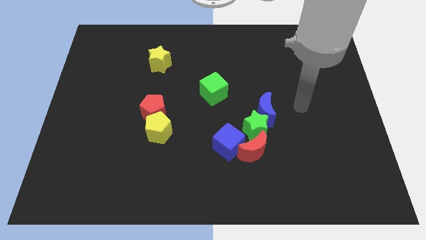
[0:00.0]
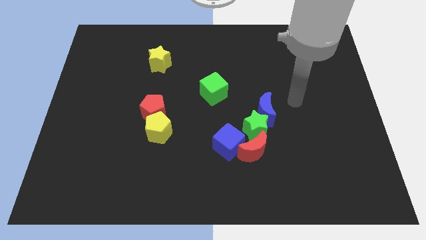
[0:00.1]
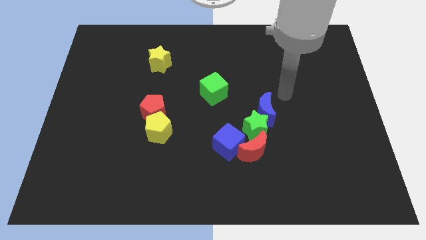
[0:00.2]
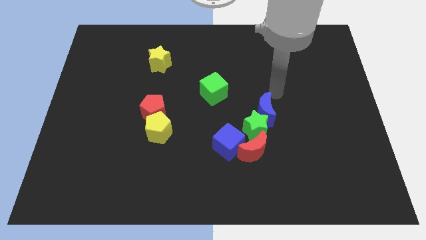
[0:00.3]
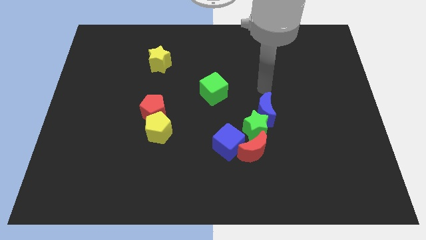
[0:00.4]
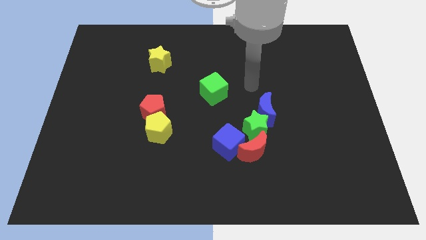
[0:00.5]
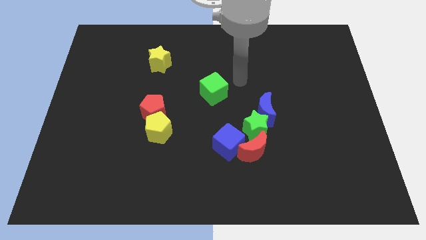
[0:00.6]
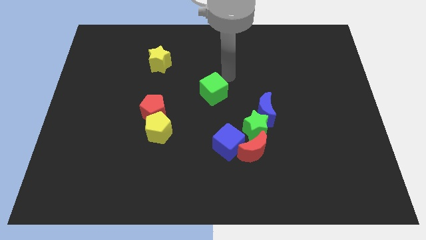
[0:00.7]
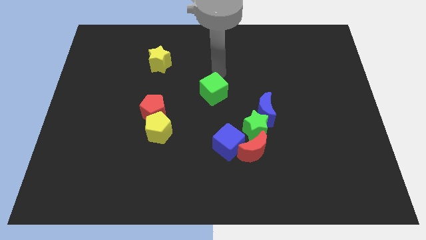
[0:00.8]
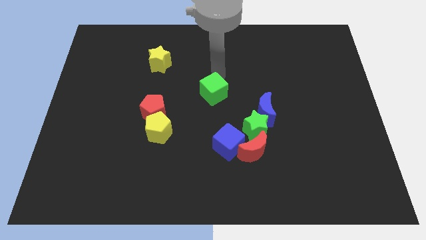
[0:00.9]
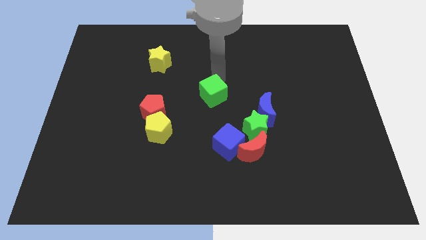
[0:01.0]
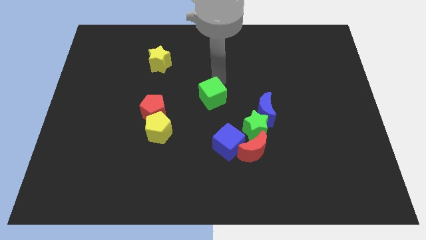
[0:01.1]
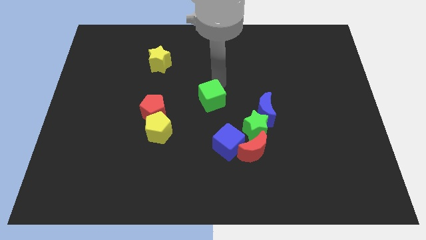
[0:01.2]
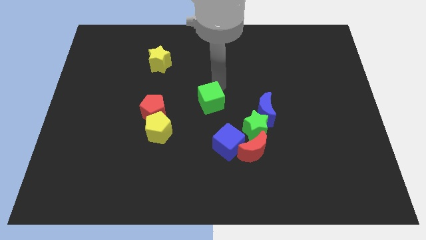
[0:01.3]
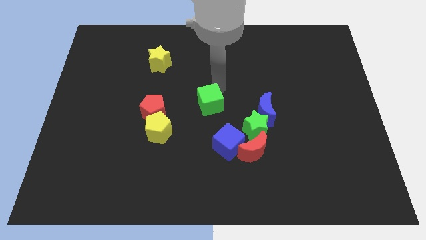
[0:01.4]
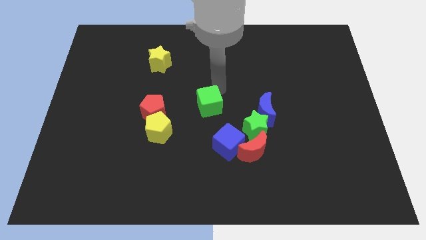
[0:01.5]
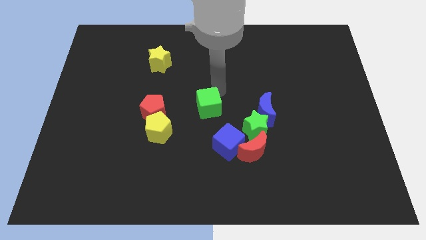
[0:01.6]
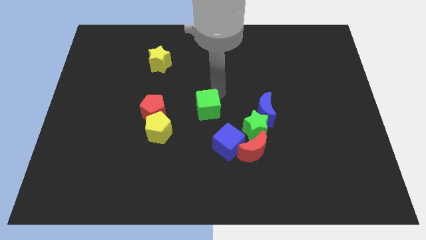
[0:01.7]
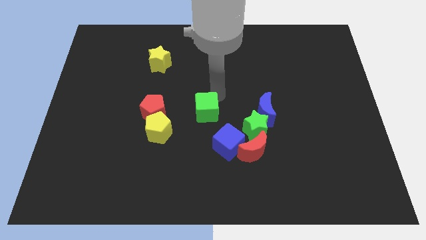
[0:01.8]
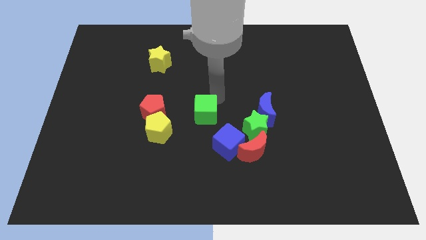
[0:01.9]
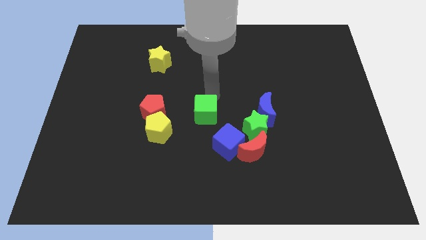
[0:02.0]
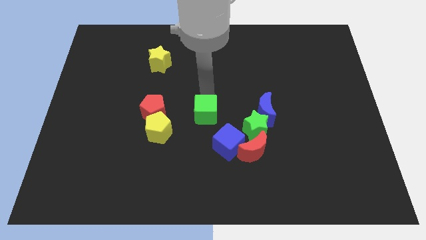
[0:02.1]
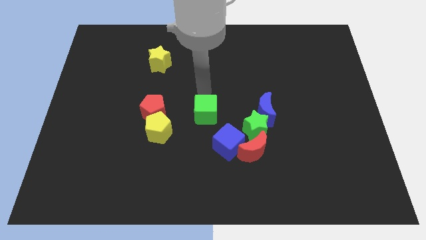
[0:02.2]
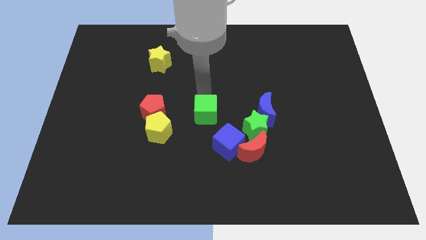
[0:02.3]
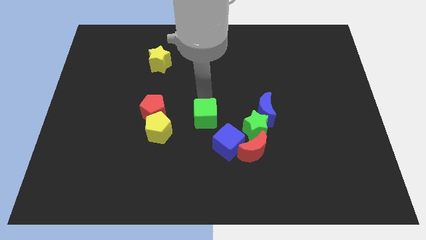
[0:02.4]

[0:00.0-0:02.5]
move the green cube down slightly

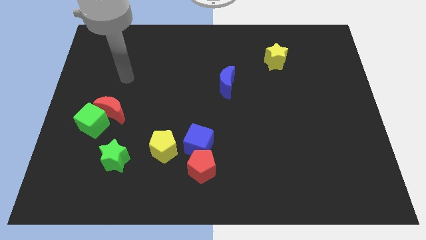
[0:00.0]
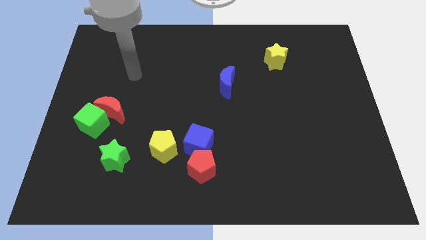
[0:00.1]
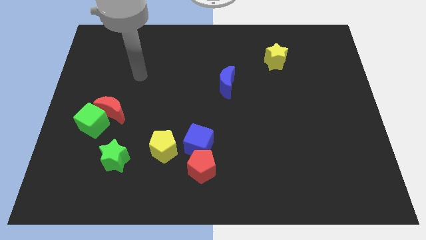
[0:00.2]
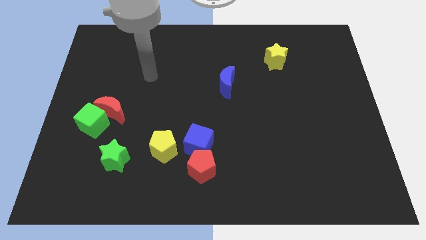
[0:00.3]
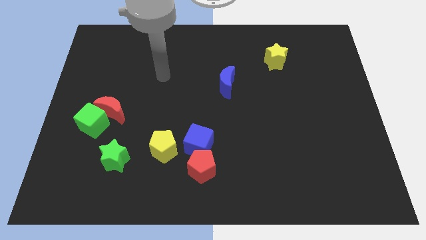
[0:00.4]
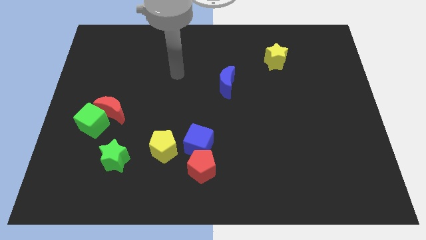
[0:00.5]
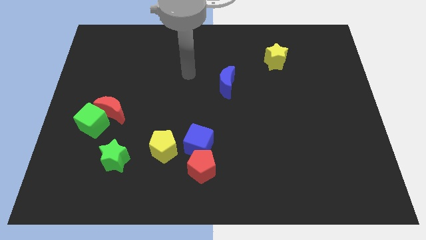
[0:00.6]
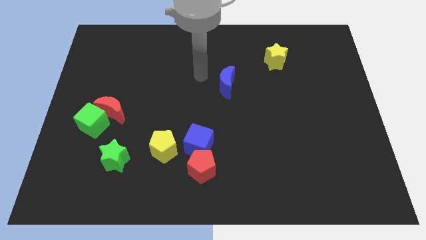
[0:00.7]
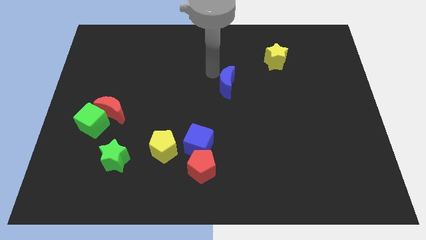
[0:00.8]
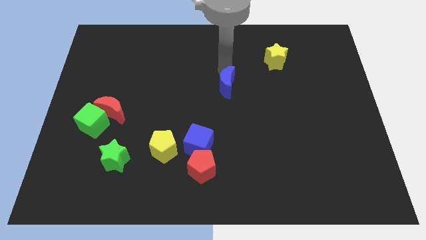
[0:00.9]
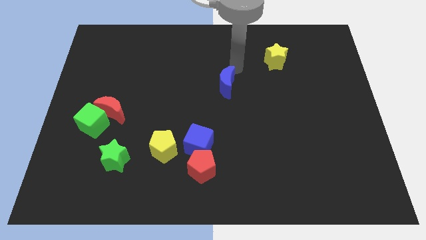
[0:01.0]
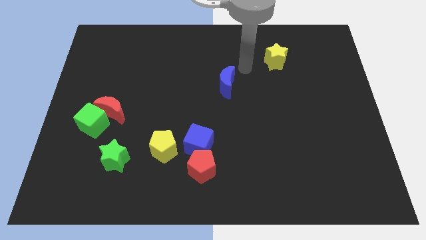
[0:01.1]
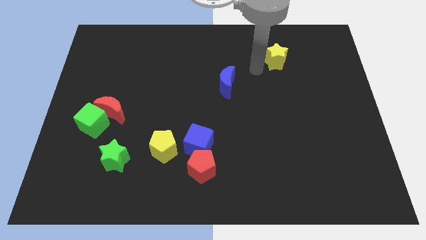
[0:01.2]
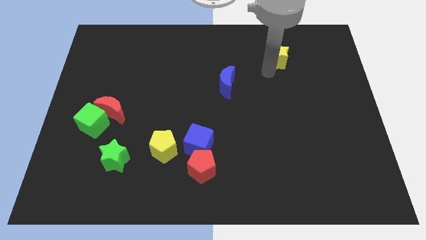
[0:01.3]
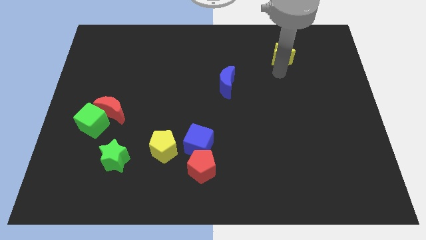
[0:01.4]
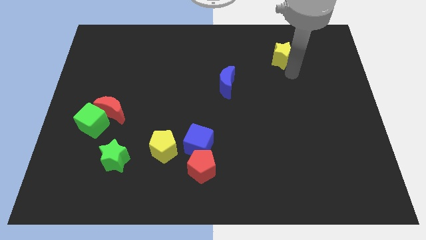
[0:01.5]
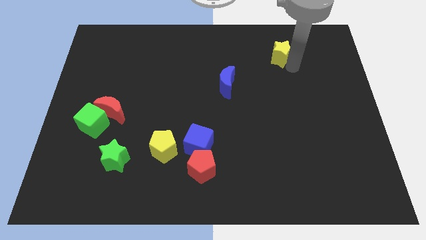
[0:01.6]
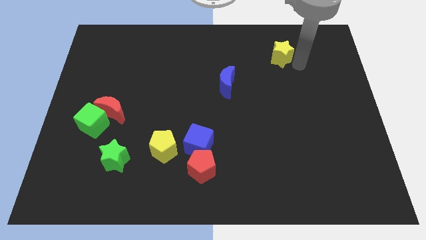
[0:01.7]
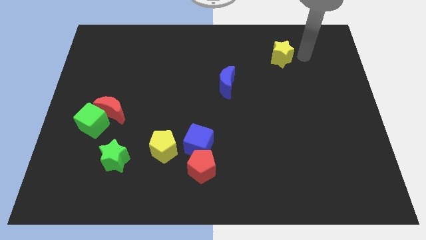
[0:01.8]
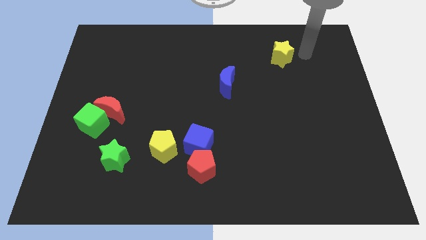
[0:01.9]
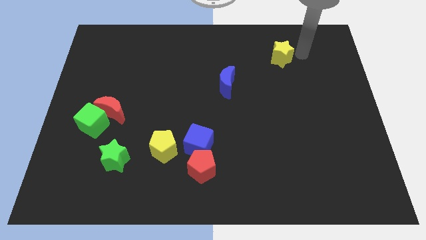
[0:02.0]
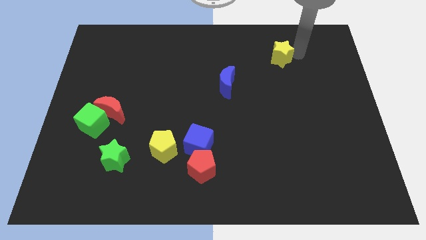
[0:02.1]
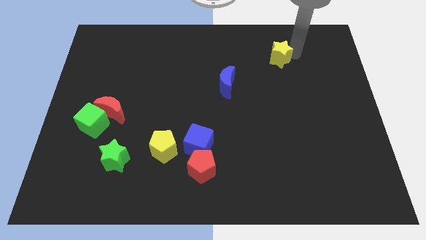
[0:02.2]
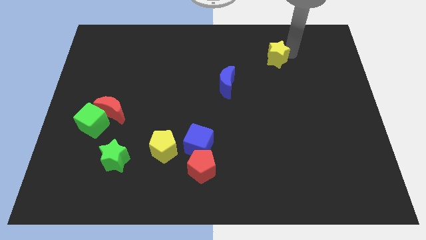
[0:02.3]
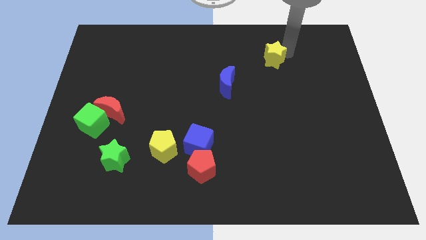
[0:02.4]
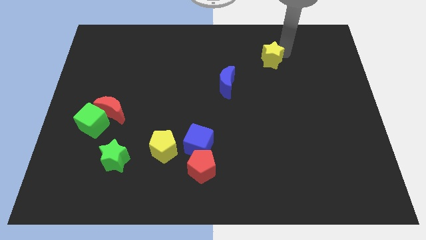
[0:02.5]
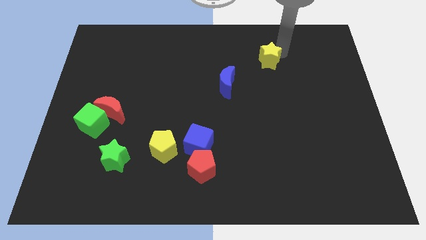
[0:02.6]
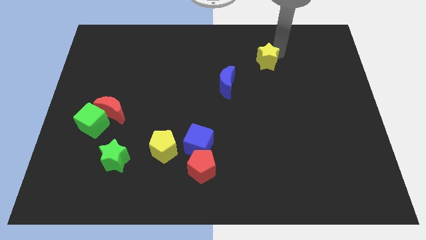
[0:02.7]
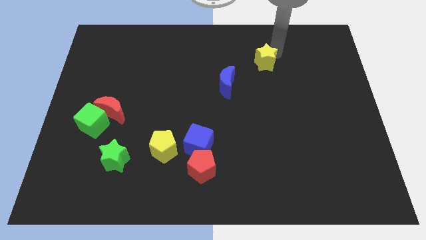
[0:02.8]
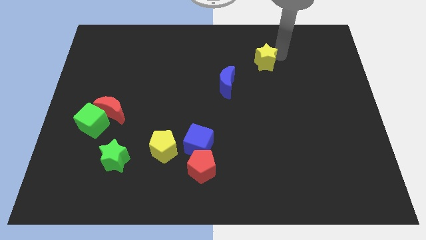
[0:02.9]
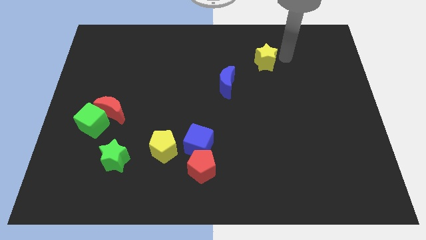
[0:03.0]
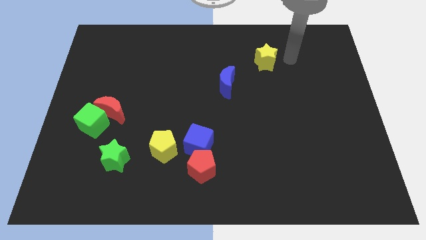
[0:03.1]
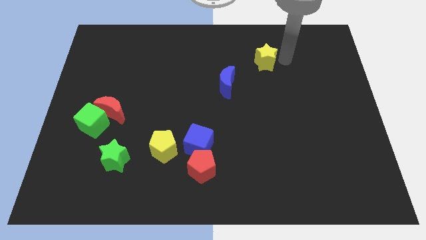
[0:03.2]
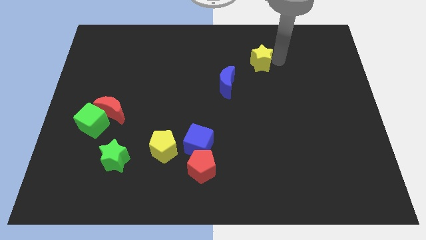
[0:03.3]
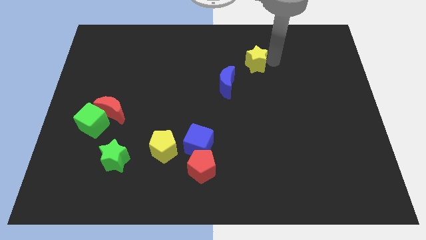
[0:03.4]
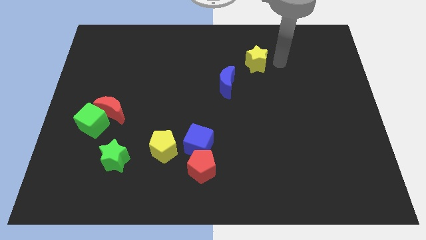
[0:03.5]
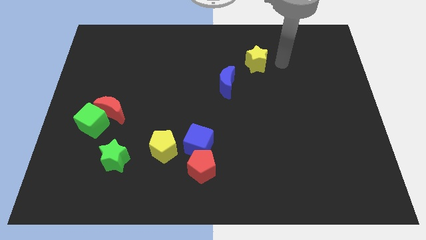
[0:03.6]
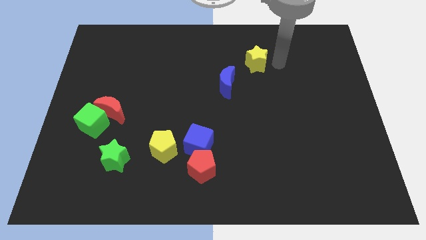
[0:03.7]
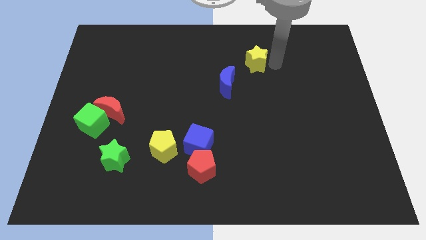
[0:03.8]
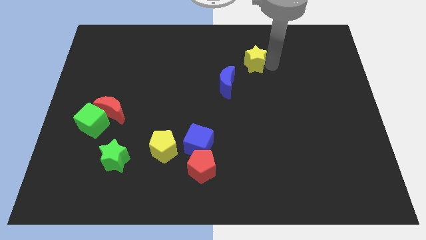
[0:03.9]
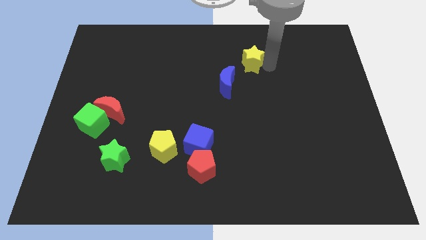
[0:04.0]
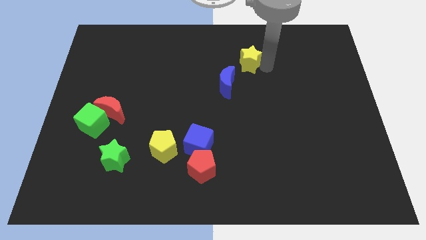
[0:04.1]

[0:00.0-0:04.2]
move the yellow star a bit to the left

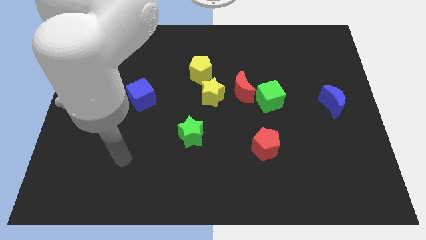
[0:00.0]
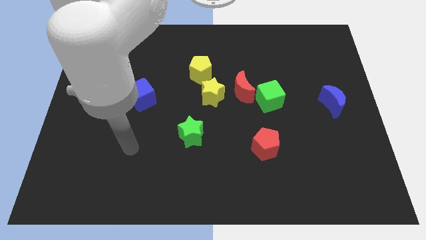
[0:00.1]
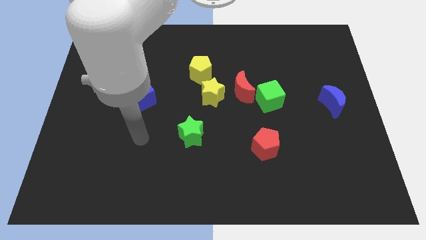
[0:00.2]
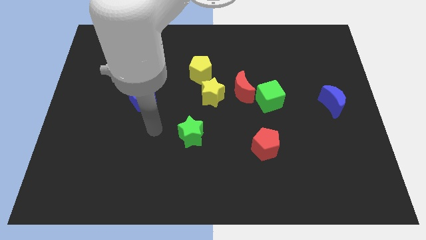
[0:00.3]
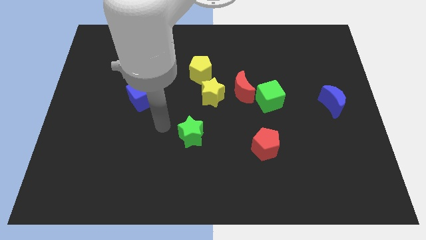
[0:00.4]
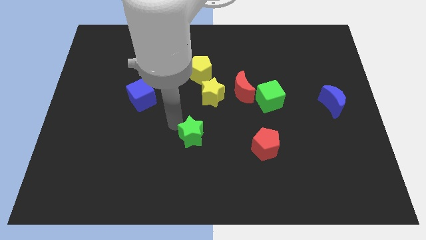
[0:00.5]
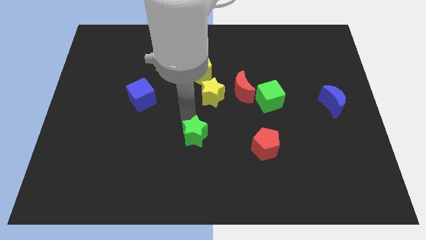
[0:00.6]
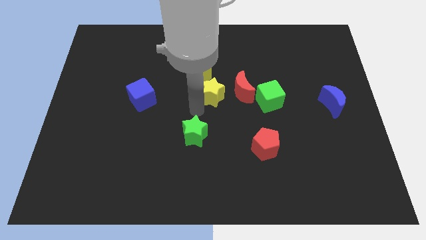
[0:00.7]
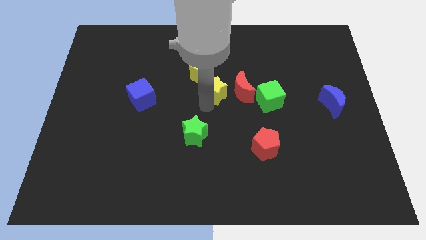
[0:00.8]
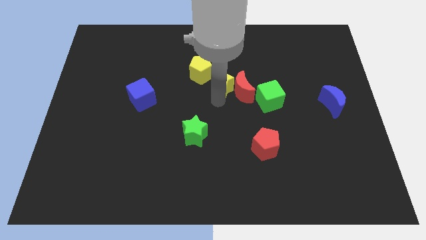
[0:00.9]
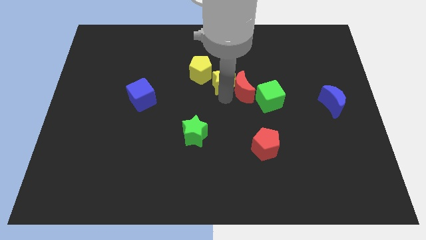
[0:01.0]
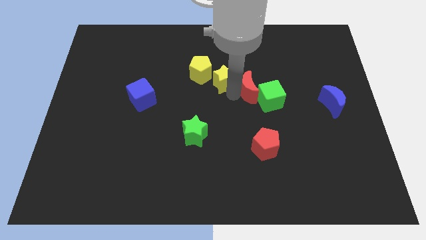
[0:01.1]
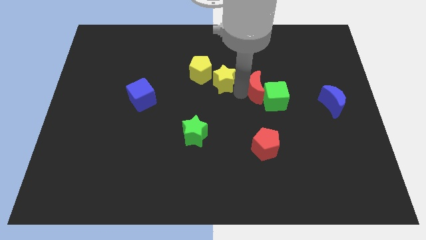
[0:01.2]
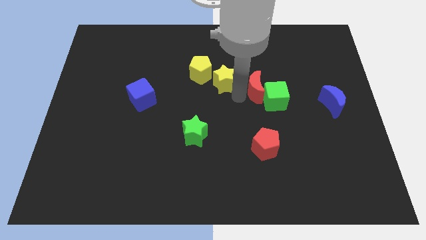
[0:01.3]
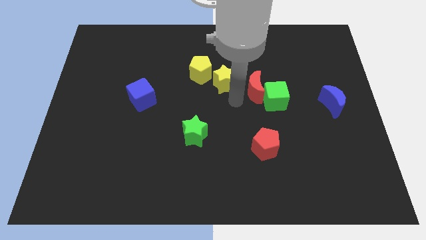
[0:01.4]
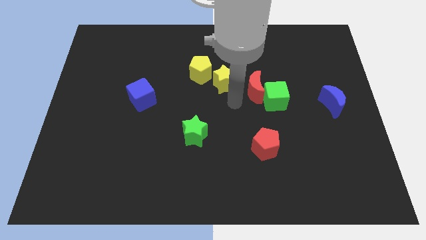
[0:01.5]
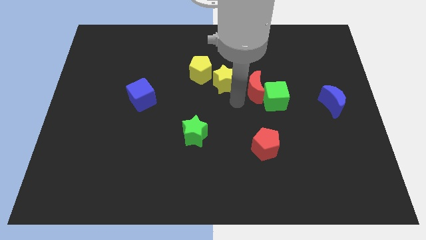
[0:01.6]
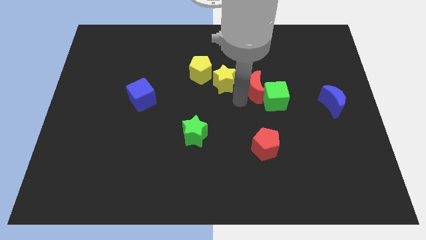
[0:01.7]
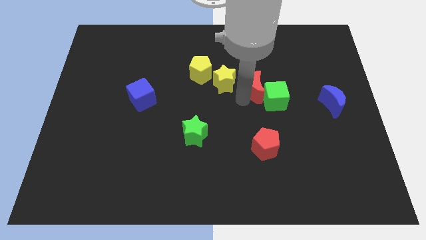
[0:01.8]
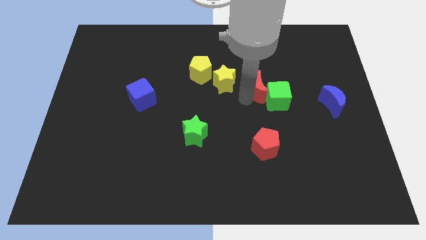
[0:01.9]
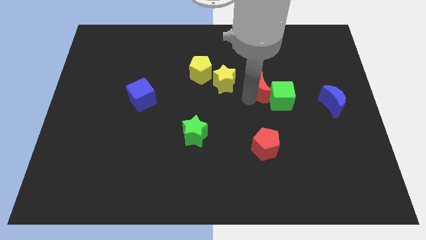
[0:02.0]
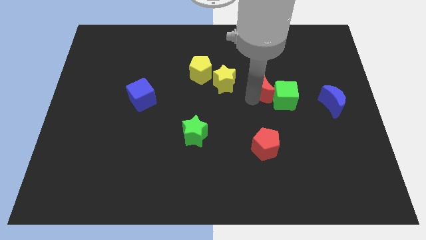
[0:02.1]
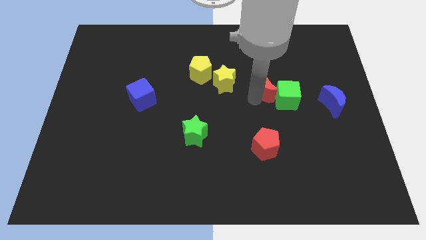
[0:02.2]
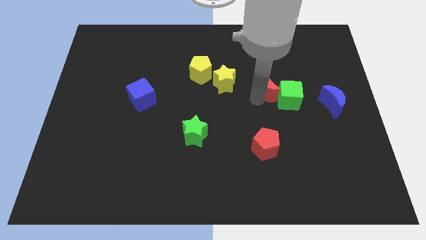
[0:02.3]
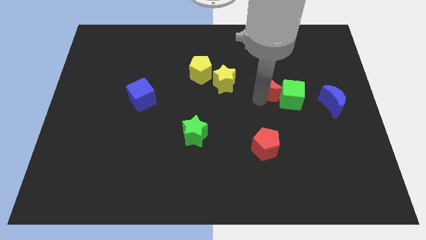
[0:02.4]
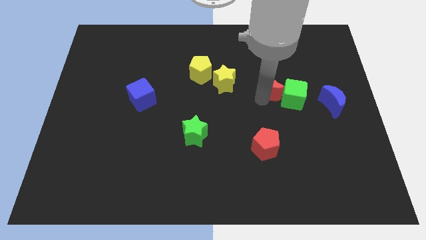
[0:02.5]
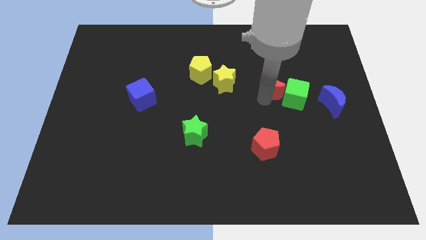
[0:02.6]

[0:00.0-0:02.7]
push the red moon a bit to the right
